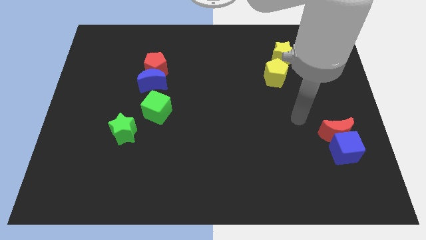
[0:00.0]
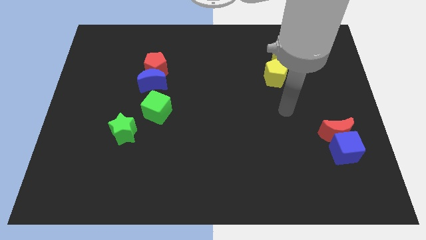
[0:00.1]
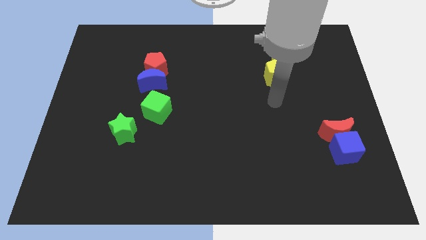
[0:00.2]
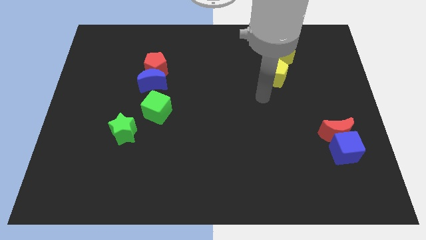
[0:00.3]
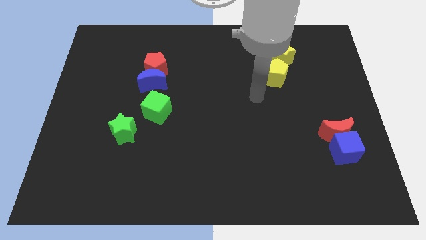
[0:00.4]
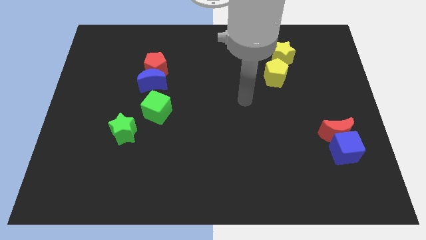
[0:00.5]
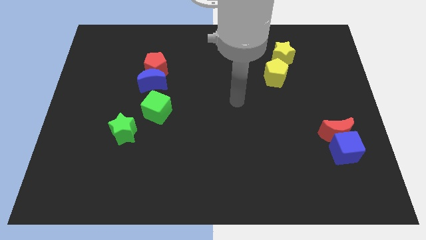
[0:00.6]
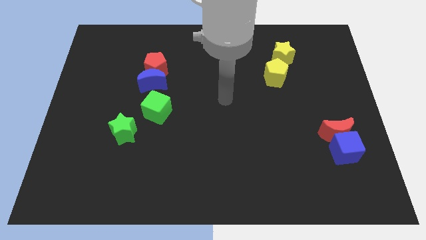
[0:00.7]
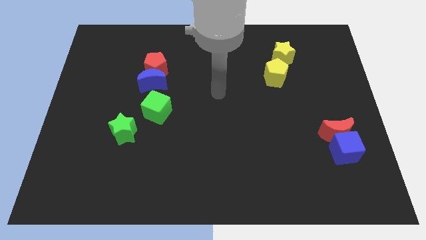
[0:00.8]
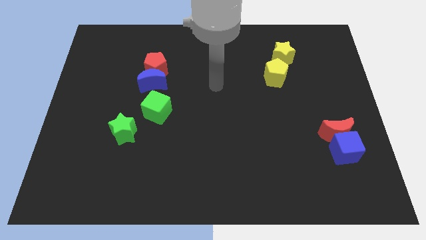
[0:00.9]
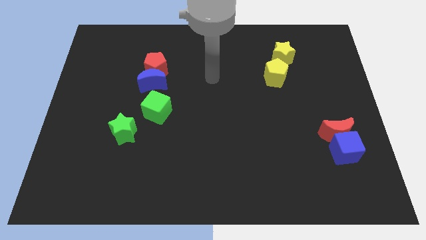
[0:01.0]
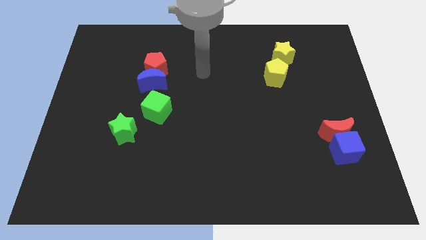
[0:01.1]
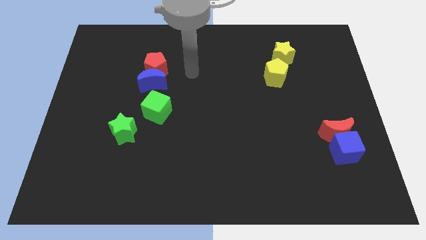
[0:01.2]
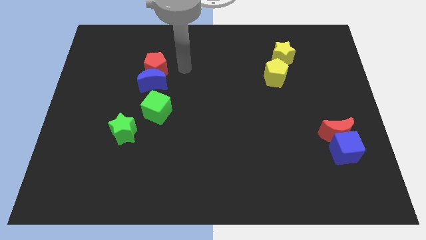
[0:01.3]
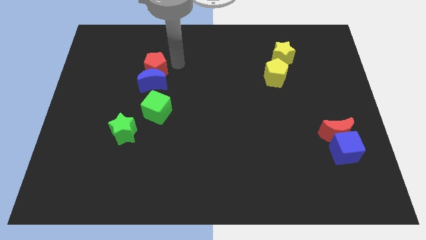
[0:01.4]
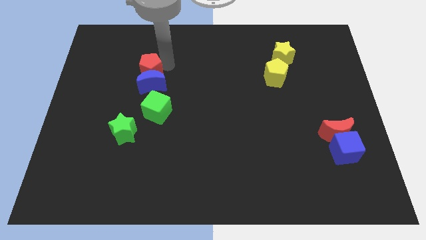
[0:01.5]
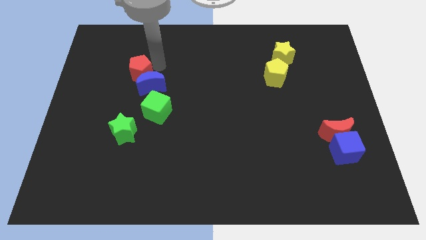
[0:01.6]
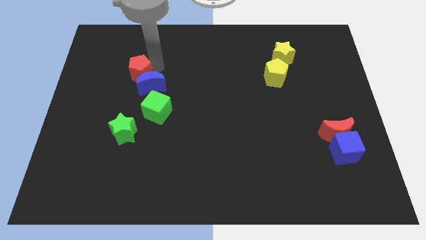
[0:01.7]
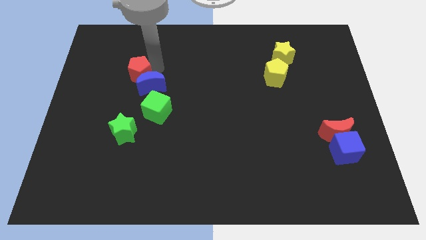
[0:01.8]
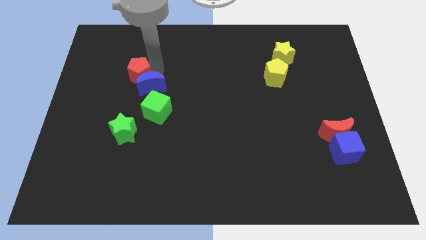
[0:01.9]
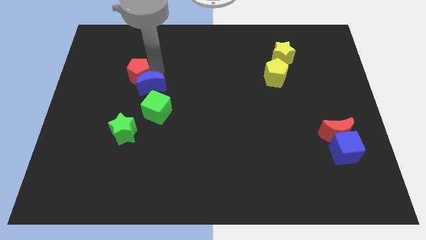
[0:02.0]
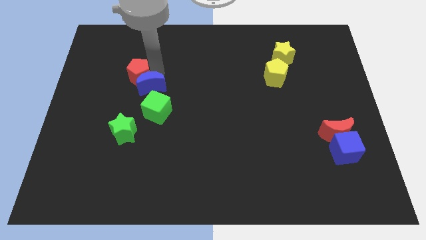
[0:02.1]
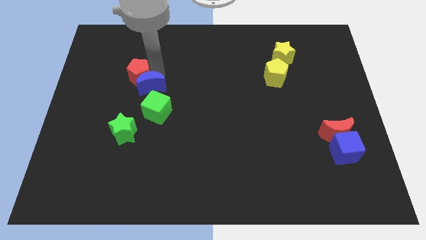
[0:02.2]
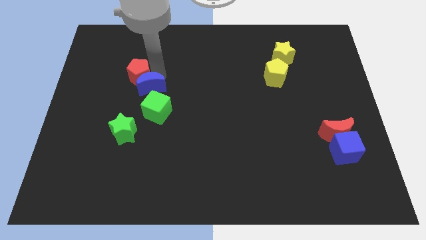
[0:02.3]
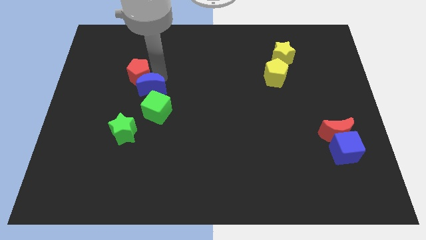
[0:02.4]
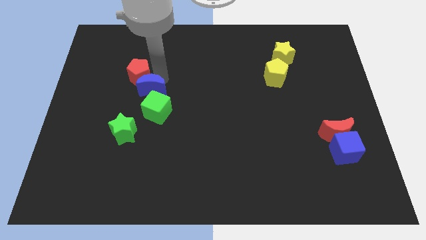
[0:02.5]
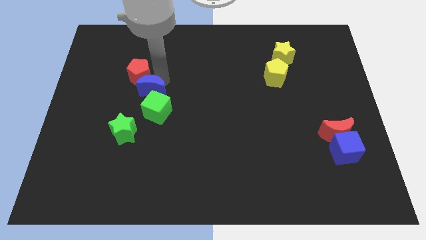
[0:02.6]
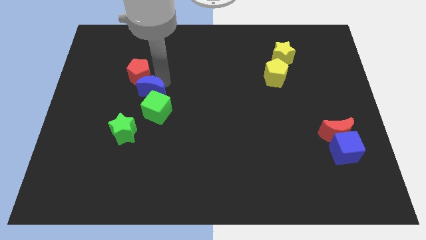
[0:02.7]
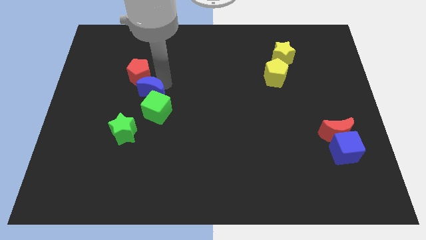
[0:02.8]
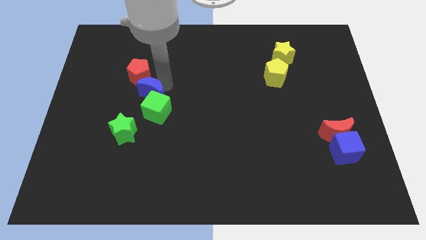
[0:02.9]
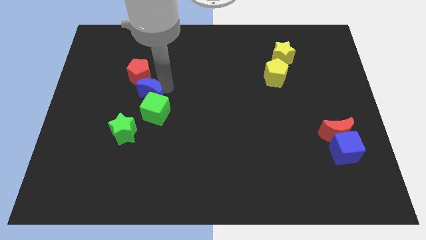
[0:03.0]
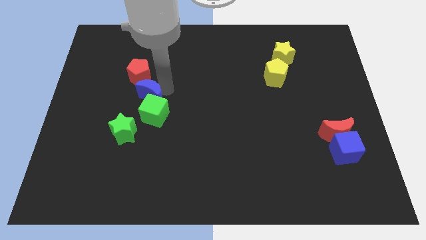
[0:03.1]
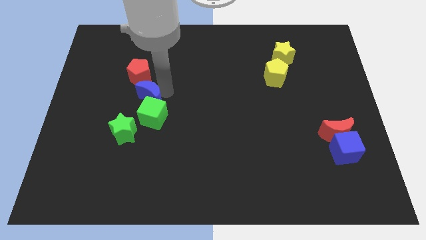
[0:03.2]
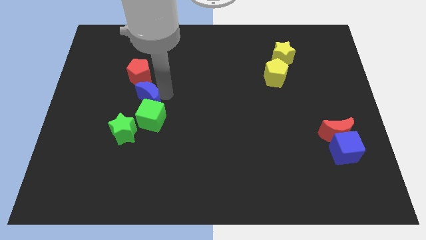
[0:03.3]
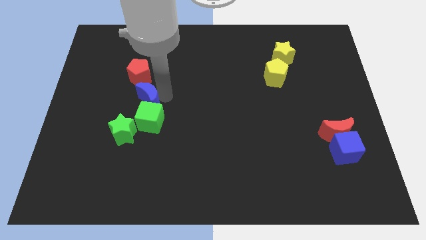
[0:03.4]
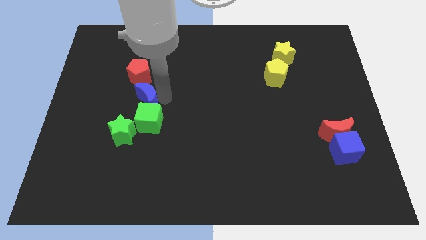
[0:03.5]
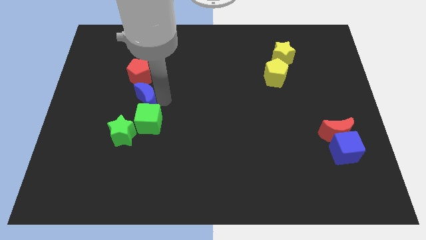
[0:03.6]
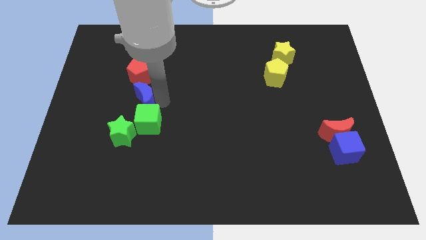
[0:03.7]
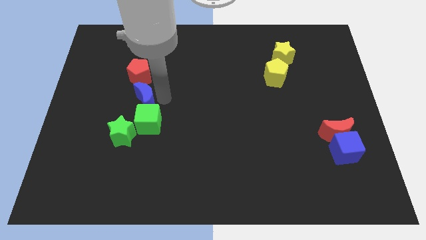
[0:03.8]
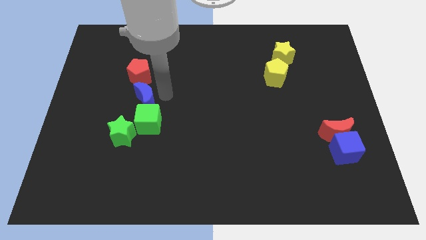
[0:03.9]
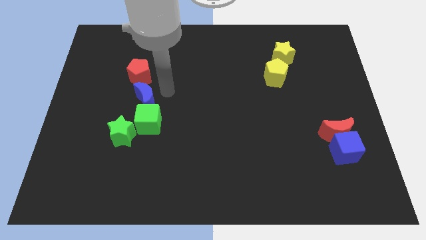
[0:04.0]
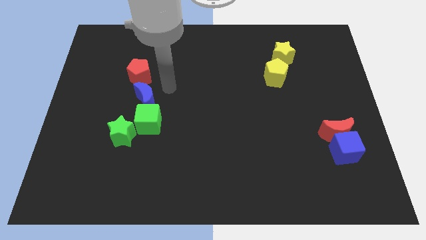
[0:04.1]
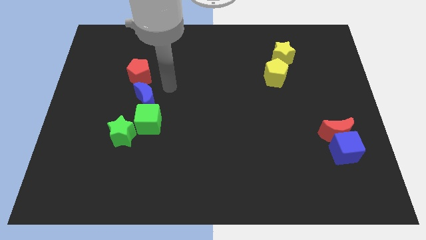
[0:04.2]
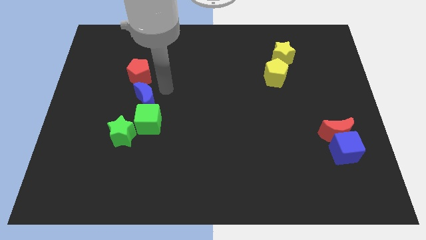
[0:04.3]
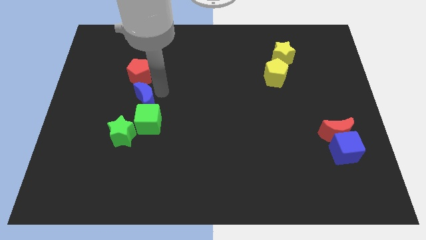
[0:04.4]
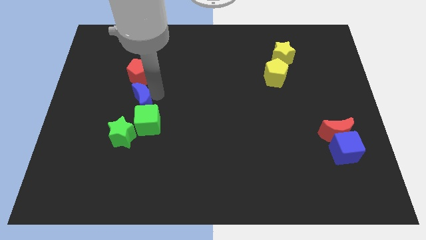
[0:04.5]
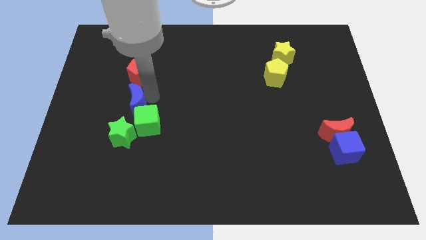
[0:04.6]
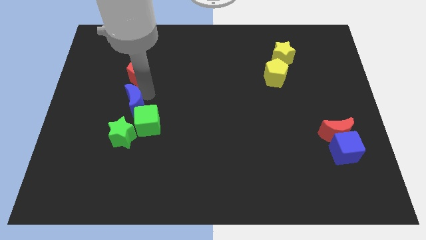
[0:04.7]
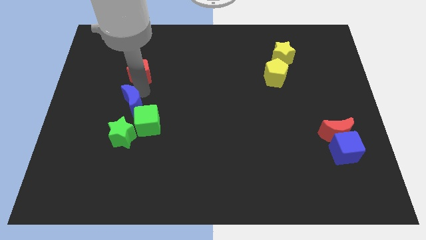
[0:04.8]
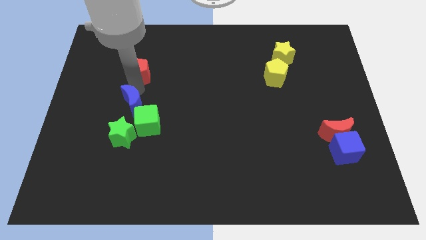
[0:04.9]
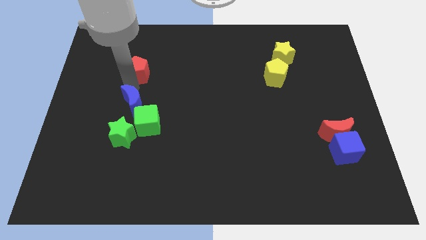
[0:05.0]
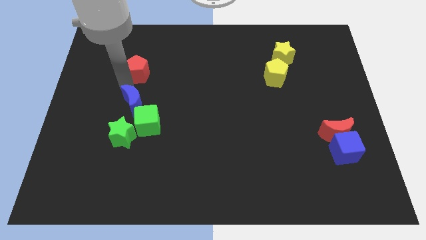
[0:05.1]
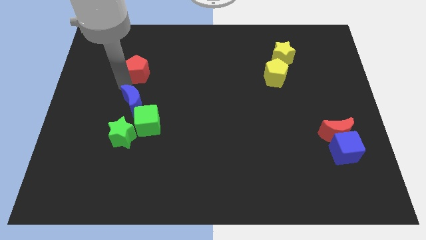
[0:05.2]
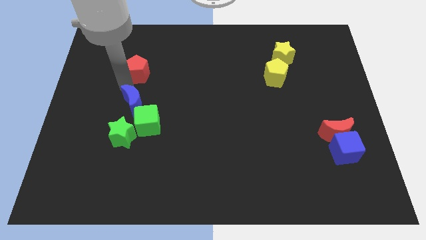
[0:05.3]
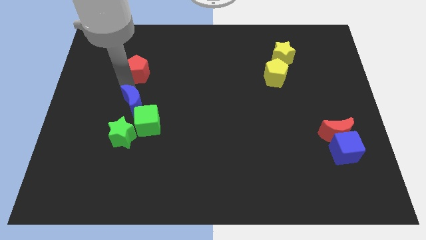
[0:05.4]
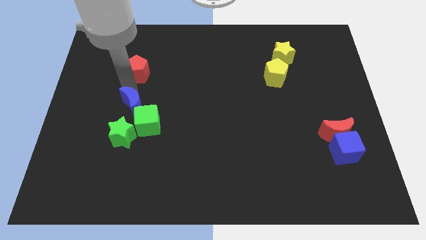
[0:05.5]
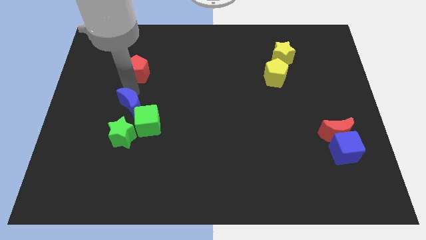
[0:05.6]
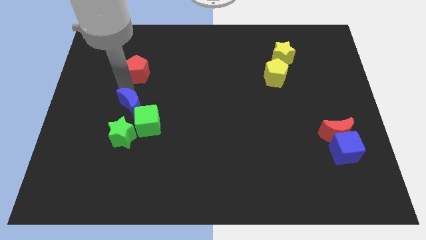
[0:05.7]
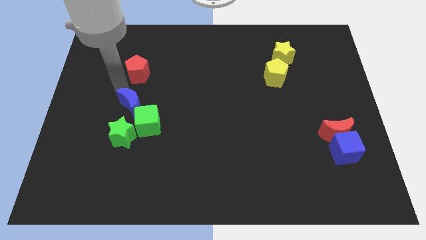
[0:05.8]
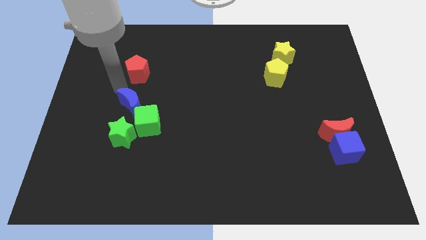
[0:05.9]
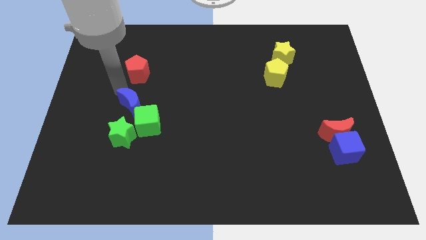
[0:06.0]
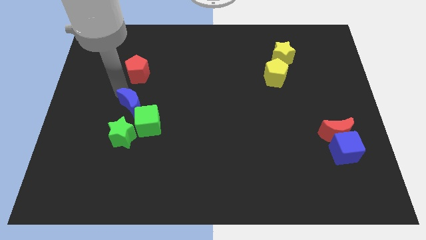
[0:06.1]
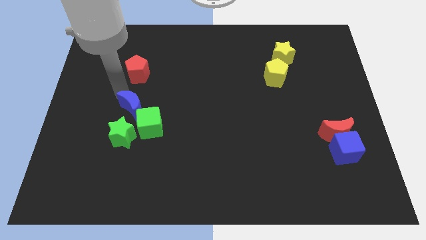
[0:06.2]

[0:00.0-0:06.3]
slide the blue moon downwards a little

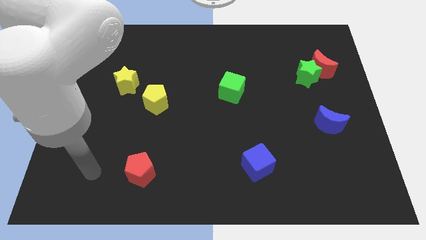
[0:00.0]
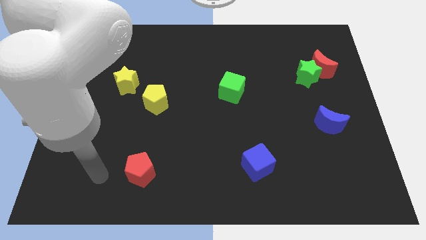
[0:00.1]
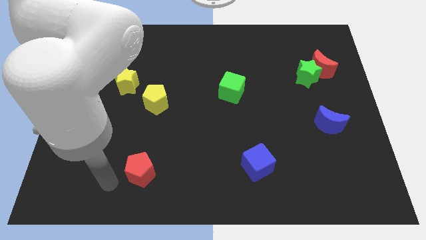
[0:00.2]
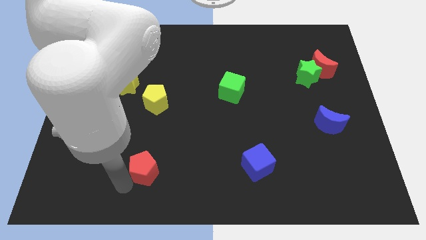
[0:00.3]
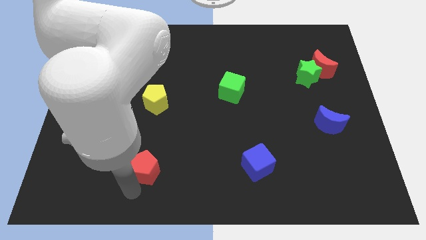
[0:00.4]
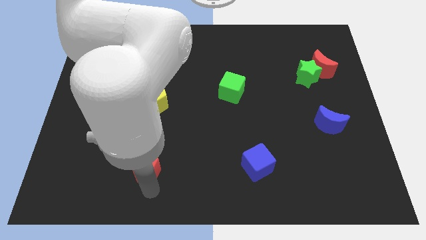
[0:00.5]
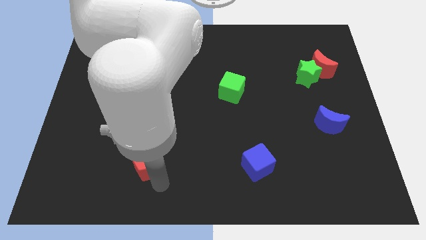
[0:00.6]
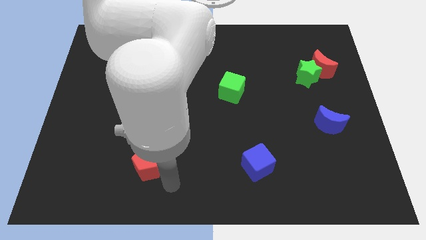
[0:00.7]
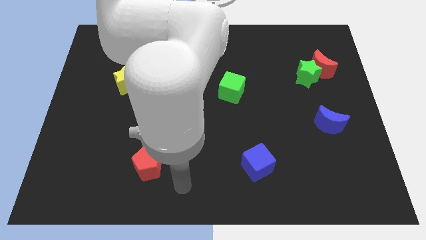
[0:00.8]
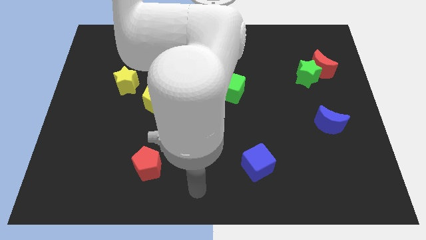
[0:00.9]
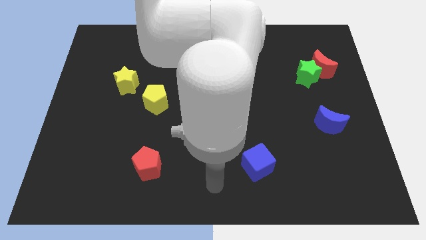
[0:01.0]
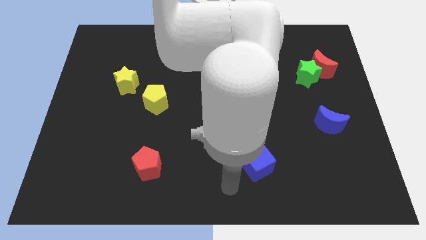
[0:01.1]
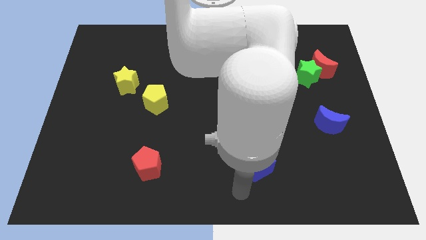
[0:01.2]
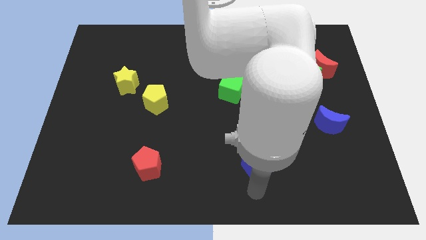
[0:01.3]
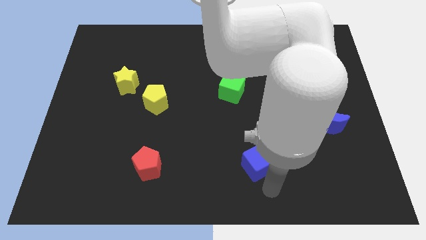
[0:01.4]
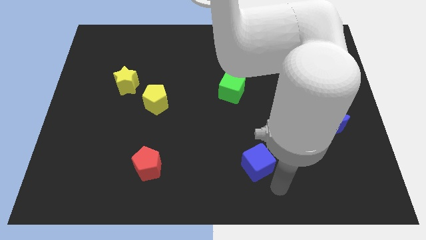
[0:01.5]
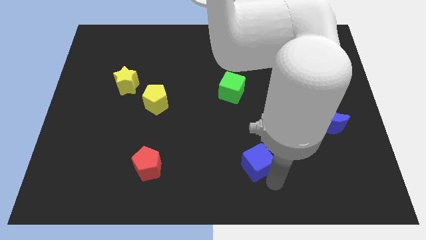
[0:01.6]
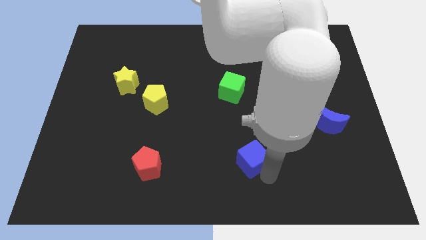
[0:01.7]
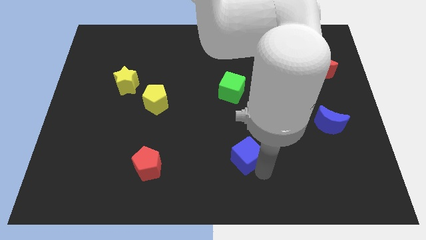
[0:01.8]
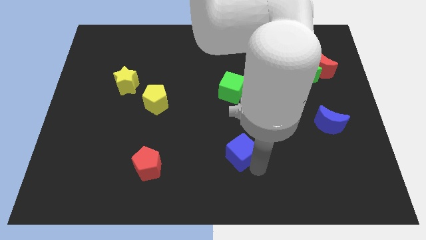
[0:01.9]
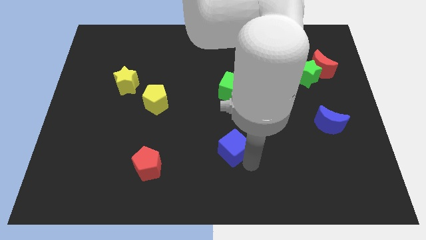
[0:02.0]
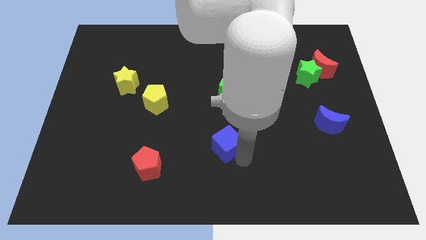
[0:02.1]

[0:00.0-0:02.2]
slightly move the blue cube diagonally upwards and left
